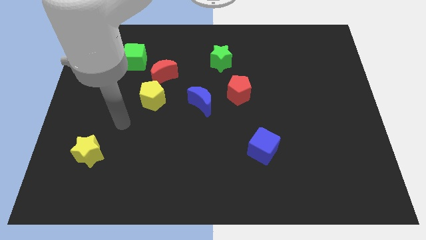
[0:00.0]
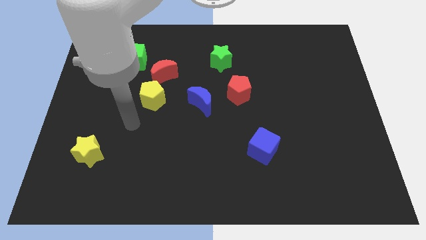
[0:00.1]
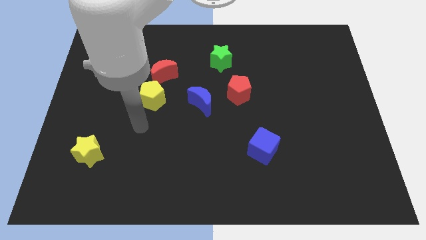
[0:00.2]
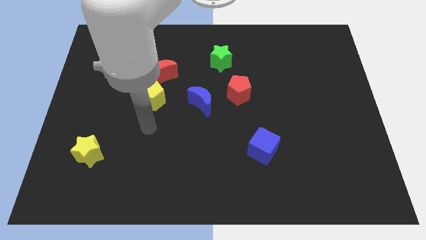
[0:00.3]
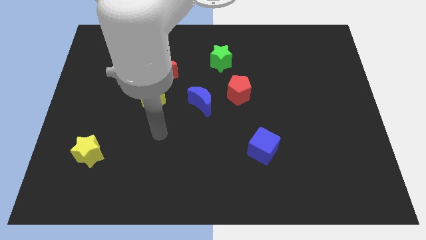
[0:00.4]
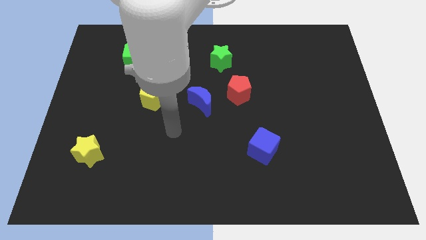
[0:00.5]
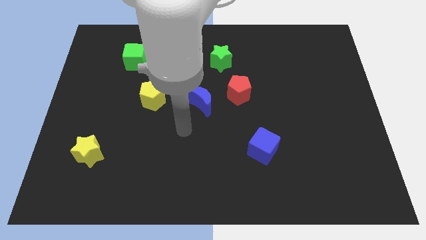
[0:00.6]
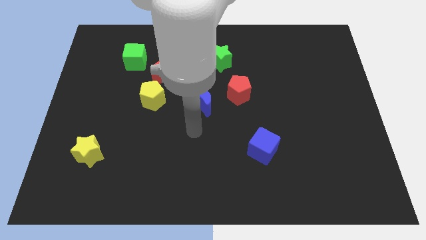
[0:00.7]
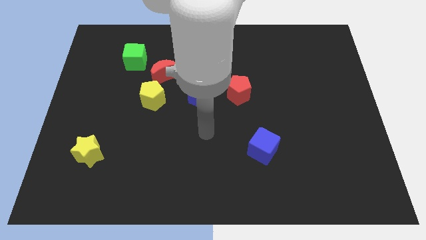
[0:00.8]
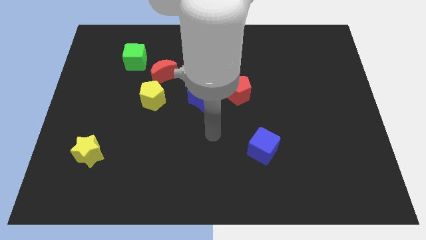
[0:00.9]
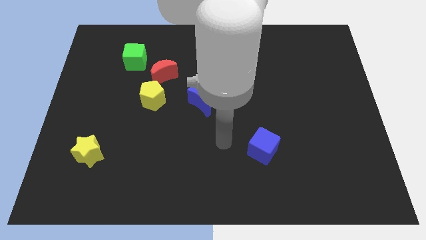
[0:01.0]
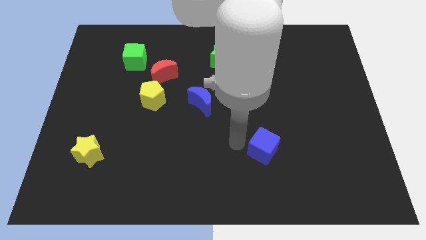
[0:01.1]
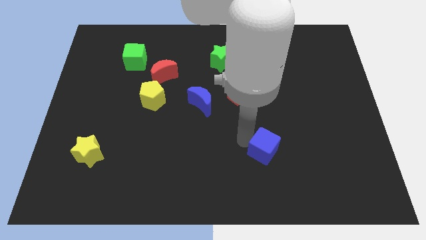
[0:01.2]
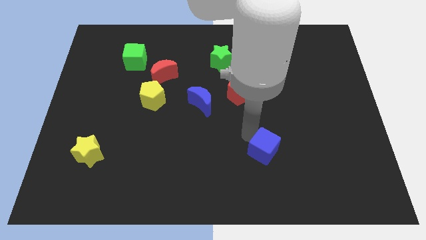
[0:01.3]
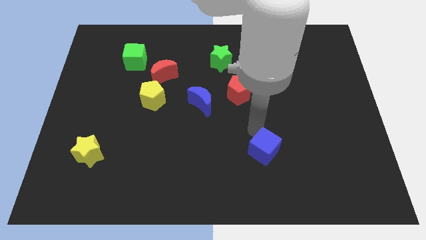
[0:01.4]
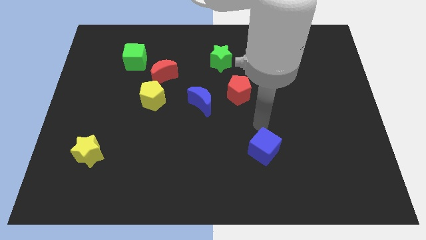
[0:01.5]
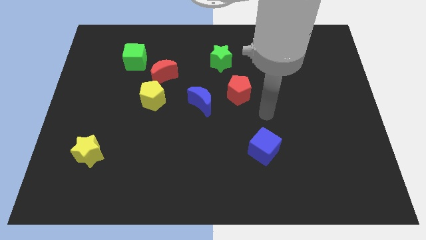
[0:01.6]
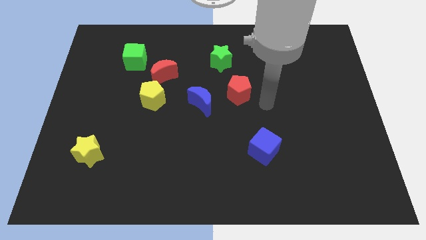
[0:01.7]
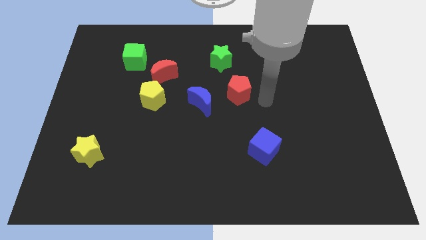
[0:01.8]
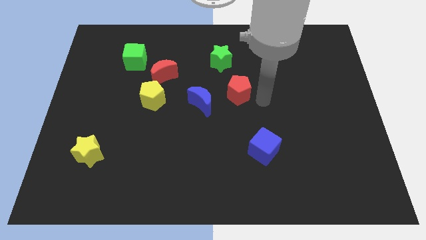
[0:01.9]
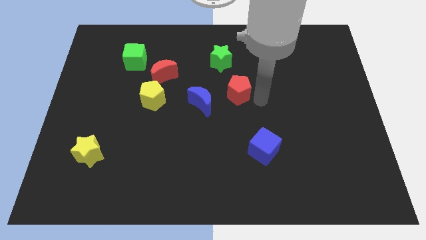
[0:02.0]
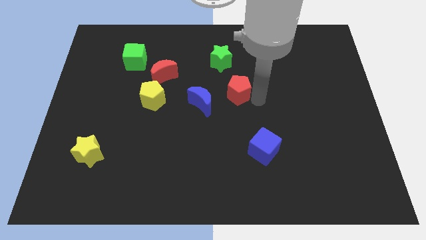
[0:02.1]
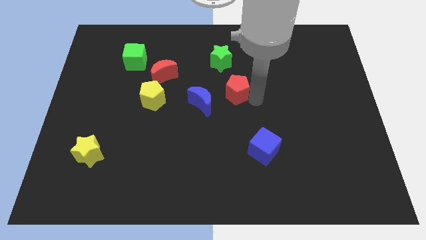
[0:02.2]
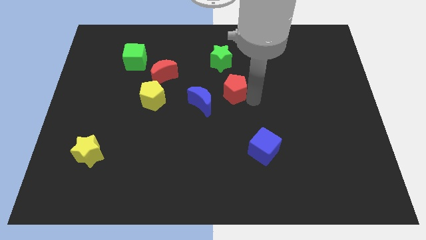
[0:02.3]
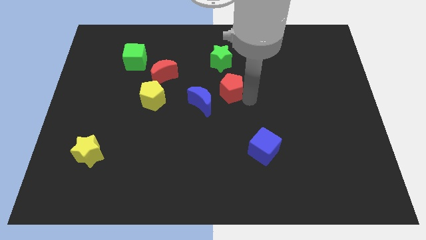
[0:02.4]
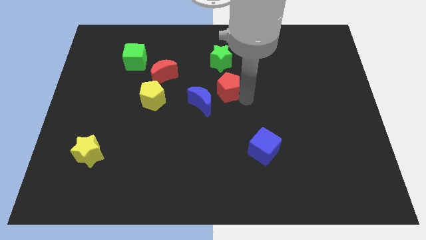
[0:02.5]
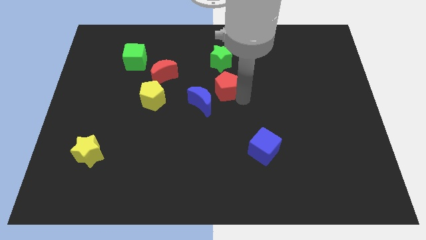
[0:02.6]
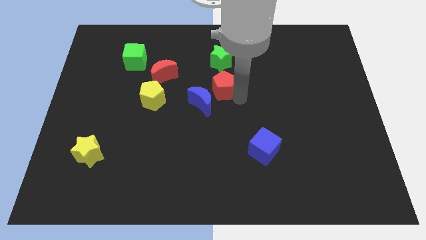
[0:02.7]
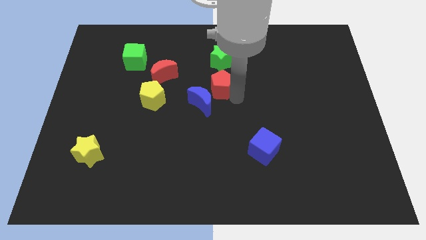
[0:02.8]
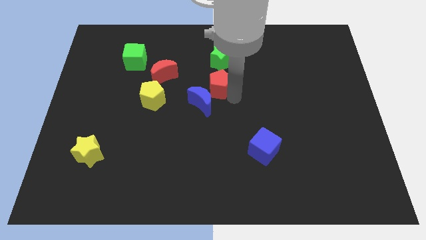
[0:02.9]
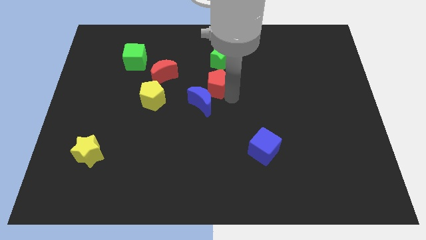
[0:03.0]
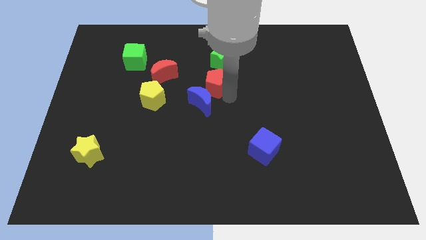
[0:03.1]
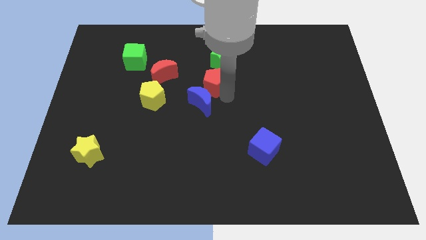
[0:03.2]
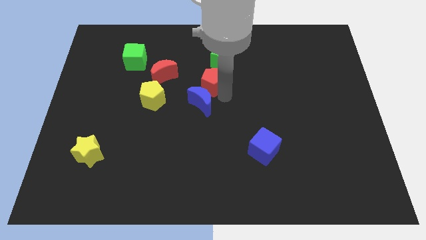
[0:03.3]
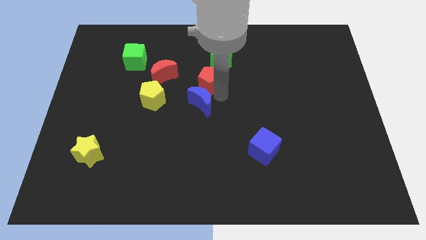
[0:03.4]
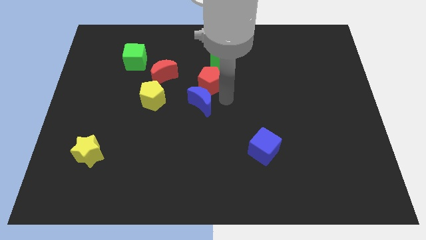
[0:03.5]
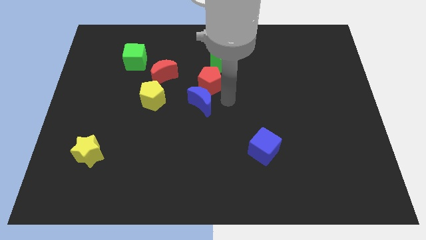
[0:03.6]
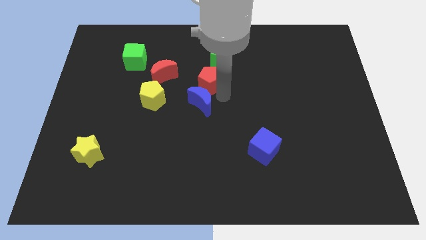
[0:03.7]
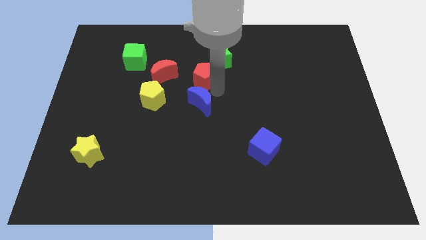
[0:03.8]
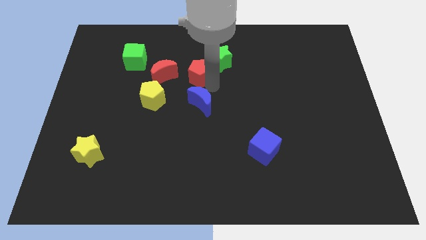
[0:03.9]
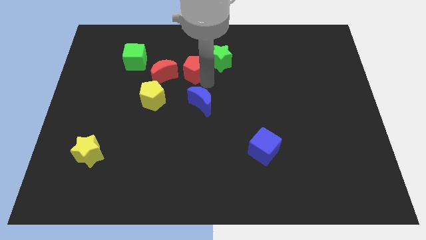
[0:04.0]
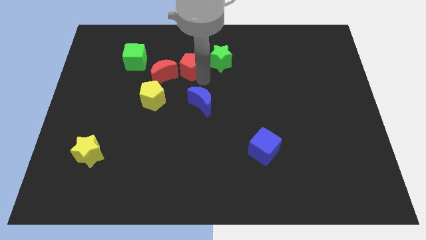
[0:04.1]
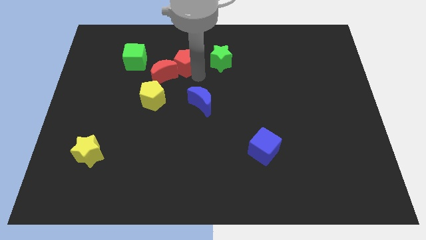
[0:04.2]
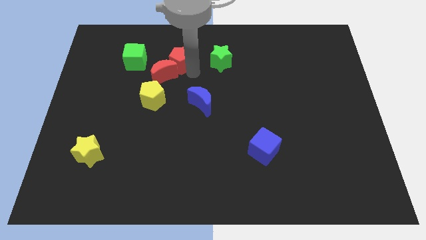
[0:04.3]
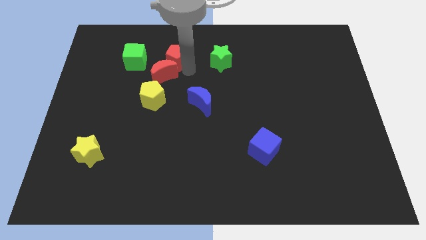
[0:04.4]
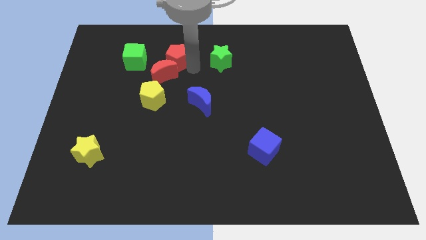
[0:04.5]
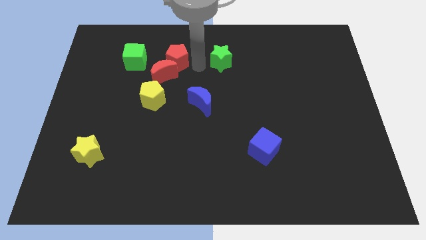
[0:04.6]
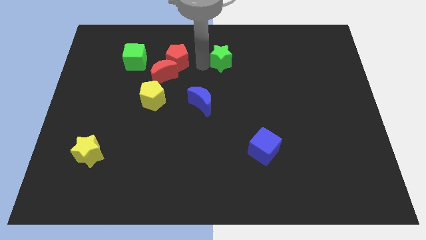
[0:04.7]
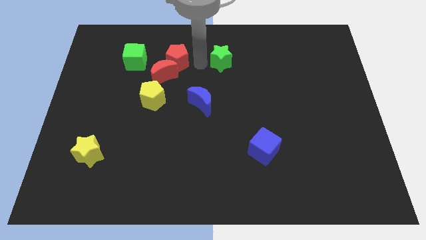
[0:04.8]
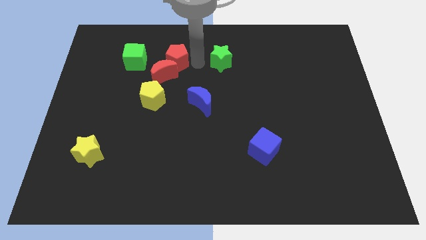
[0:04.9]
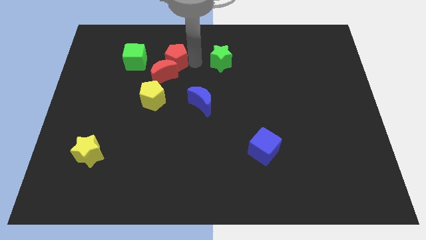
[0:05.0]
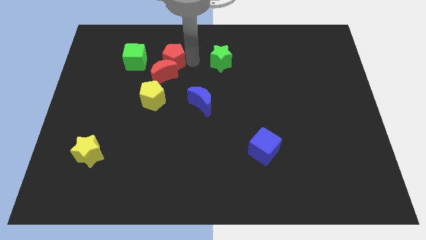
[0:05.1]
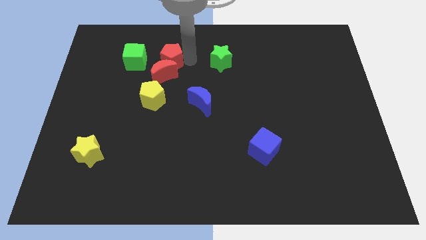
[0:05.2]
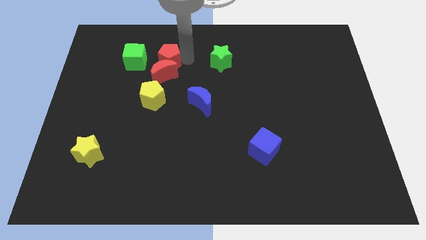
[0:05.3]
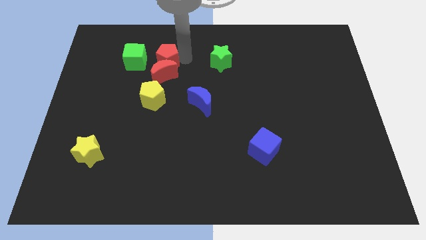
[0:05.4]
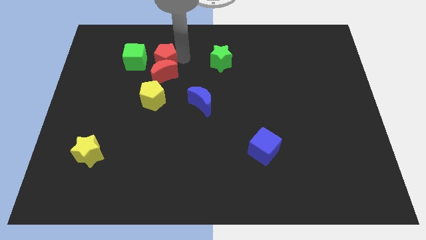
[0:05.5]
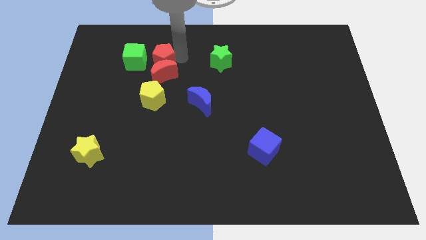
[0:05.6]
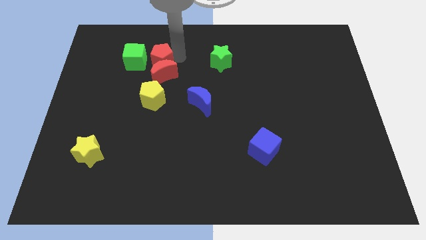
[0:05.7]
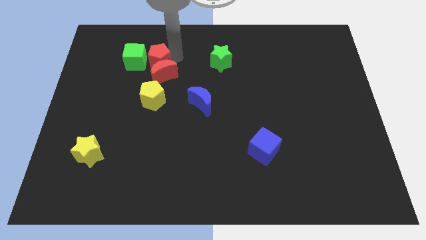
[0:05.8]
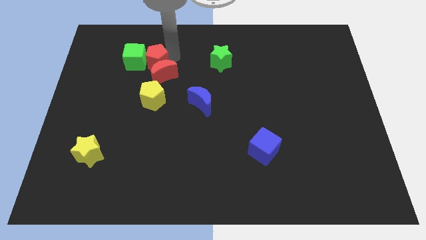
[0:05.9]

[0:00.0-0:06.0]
move the red pentagon to the green cube

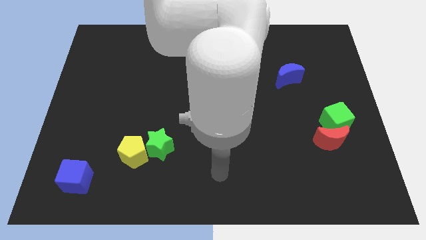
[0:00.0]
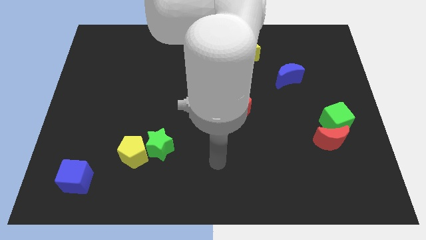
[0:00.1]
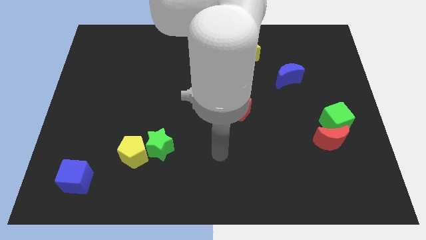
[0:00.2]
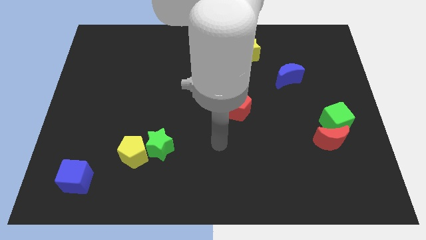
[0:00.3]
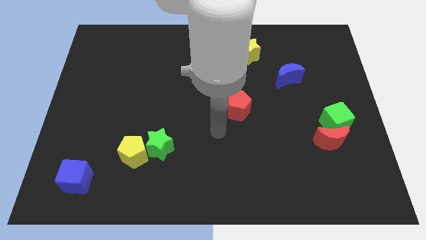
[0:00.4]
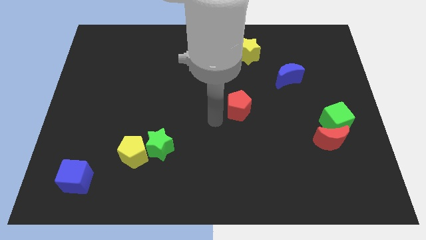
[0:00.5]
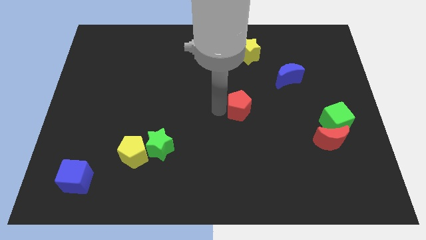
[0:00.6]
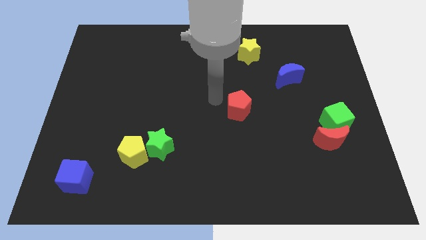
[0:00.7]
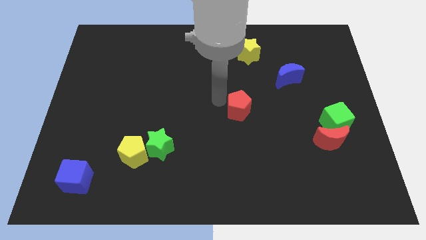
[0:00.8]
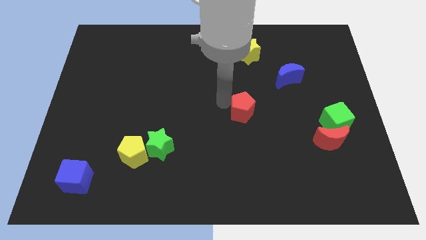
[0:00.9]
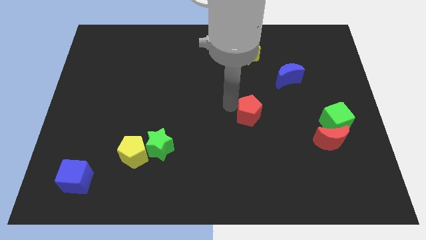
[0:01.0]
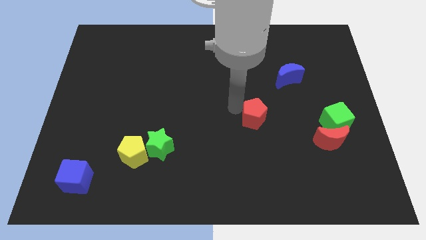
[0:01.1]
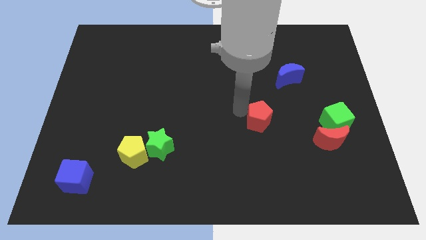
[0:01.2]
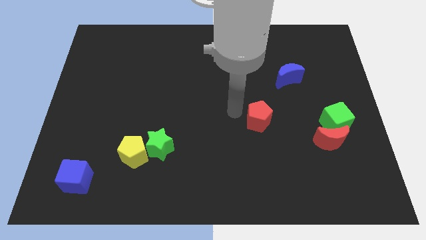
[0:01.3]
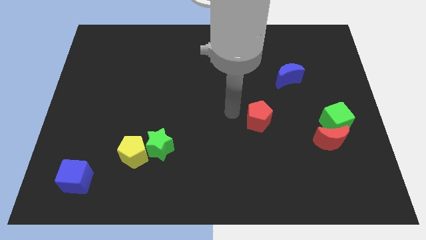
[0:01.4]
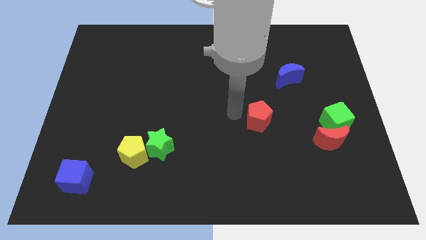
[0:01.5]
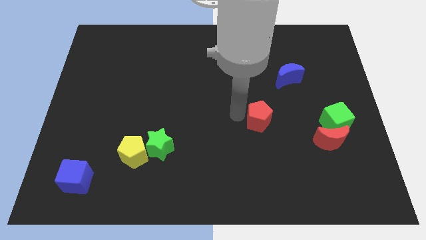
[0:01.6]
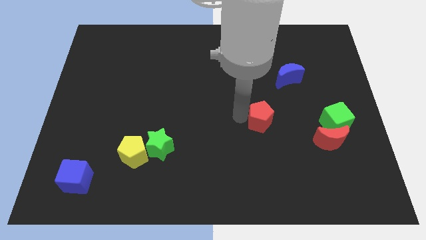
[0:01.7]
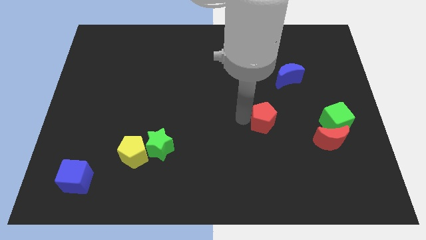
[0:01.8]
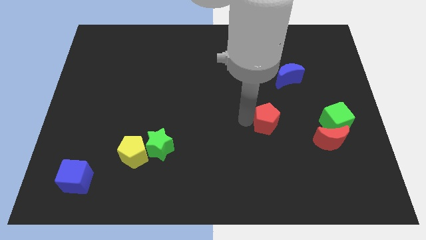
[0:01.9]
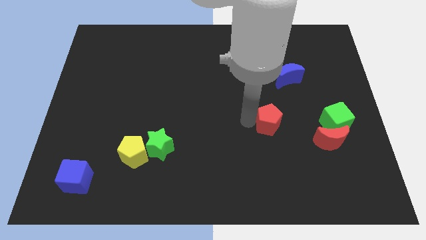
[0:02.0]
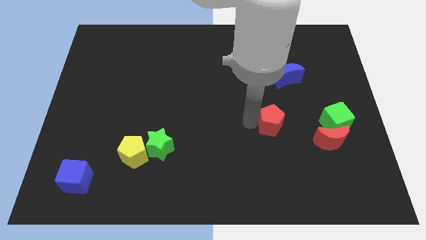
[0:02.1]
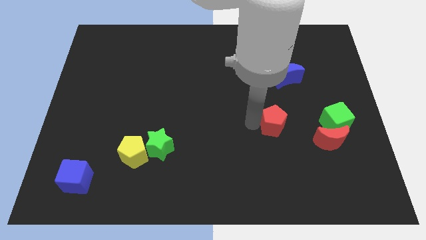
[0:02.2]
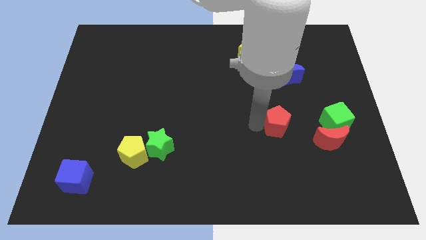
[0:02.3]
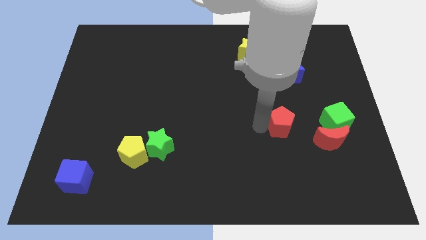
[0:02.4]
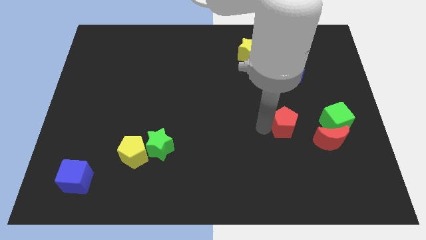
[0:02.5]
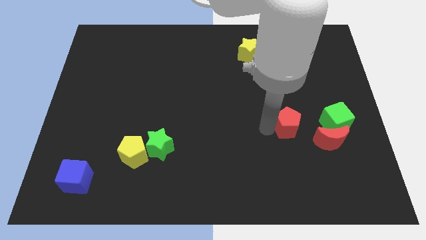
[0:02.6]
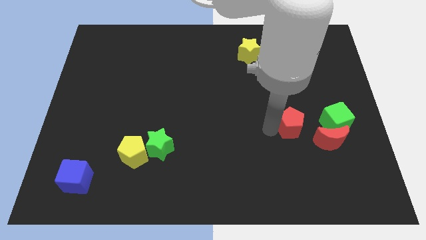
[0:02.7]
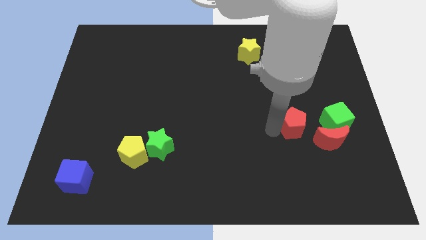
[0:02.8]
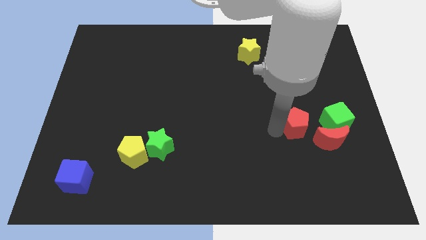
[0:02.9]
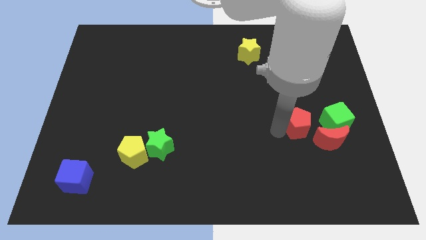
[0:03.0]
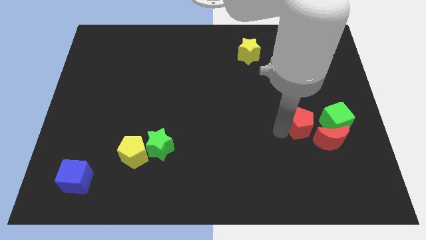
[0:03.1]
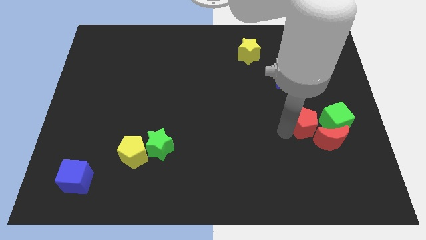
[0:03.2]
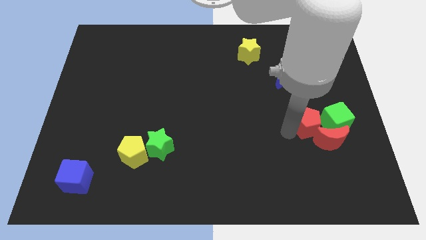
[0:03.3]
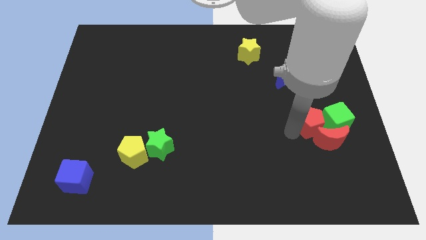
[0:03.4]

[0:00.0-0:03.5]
move the red pentagon next to the green cube
